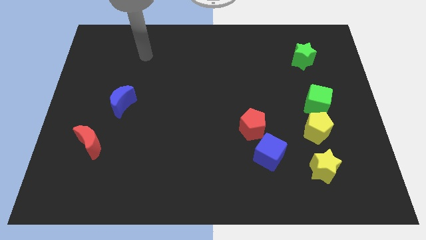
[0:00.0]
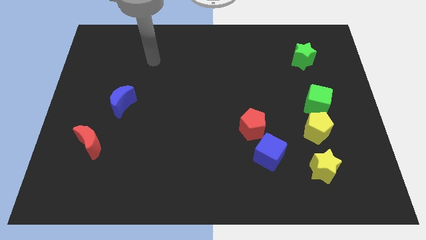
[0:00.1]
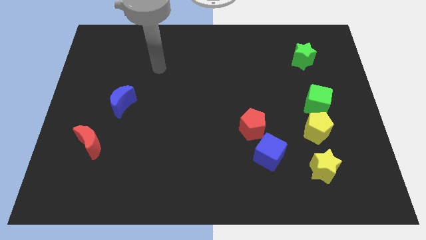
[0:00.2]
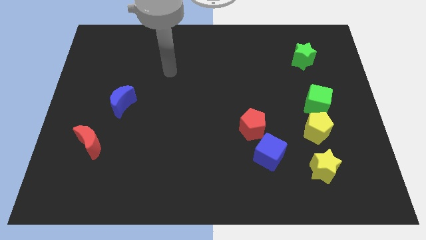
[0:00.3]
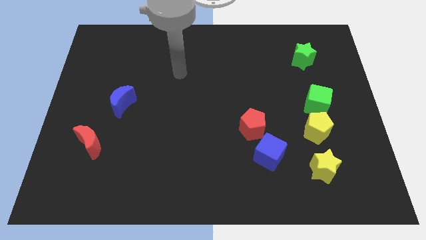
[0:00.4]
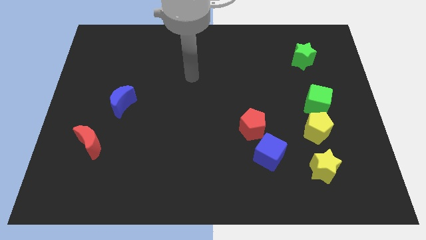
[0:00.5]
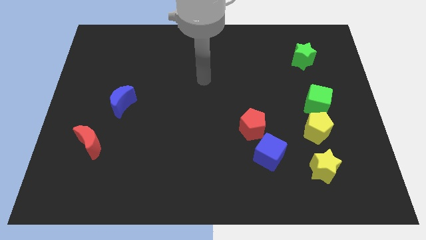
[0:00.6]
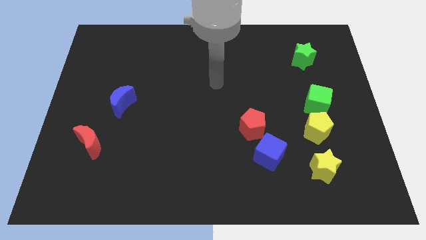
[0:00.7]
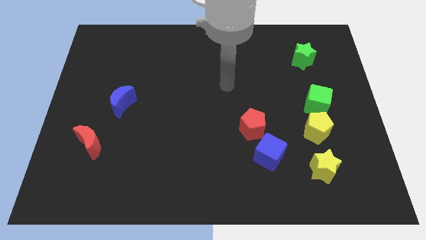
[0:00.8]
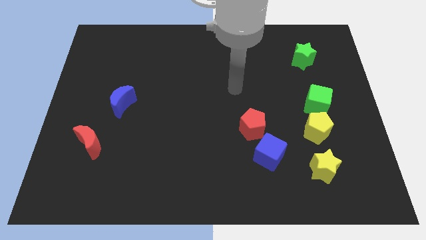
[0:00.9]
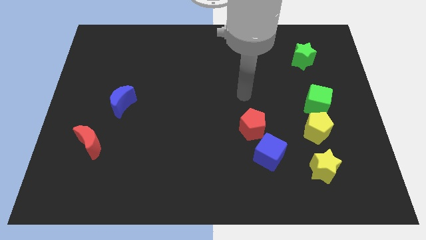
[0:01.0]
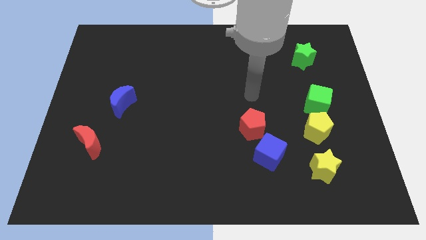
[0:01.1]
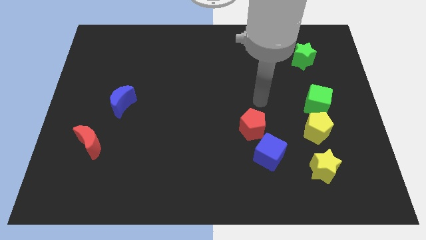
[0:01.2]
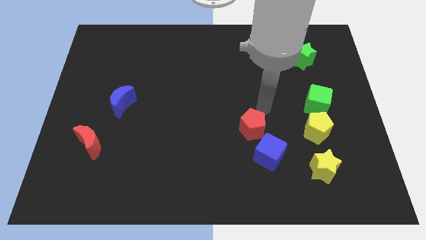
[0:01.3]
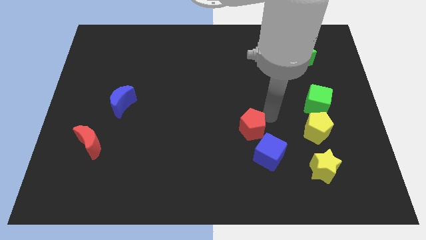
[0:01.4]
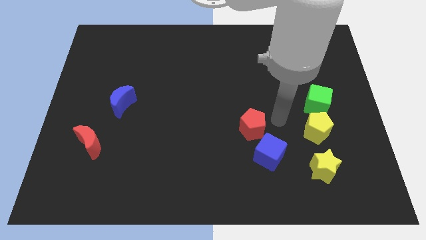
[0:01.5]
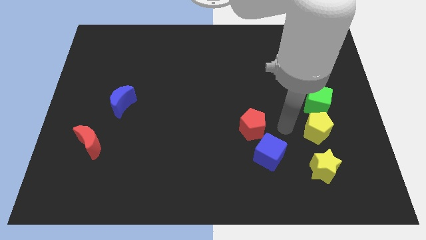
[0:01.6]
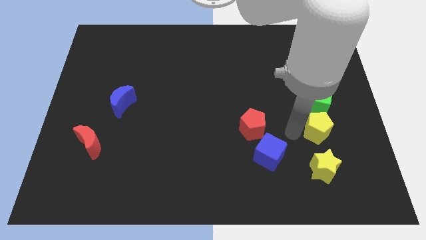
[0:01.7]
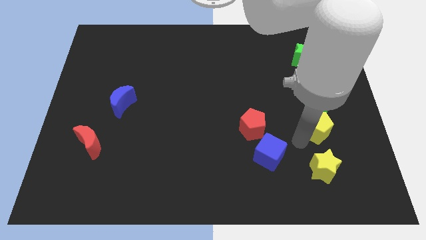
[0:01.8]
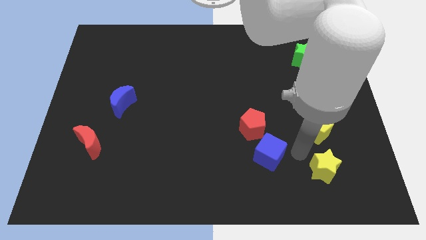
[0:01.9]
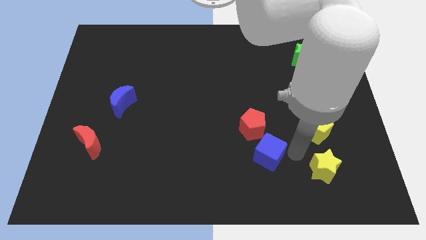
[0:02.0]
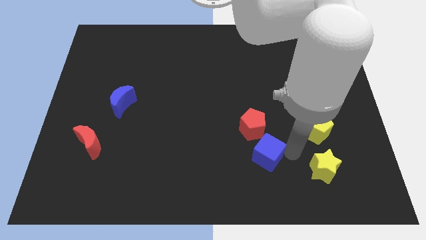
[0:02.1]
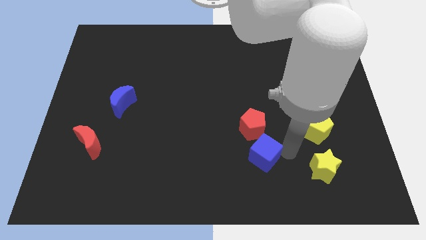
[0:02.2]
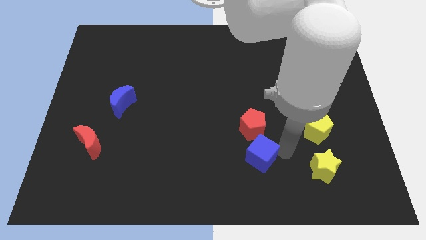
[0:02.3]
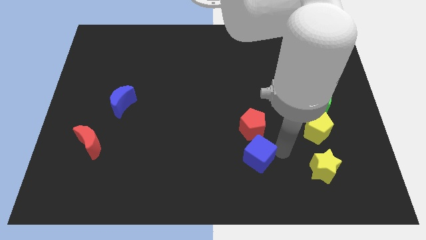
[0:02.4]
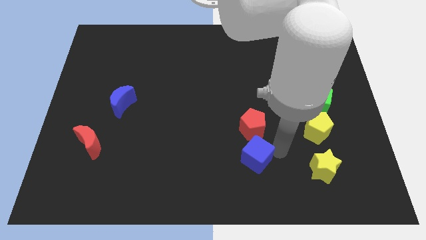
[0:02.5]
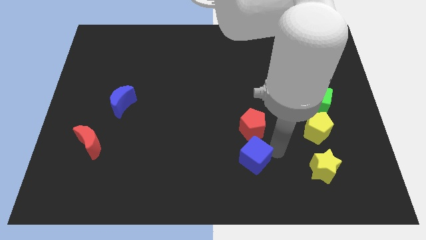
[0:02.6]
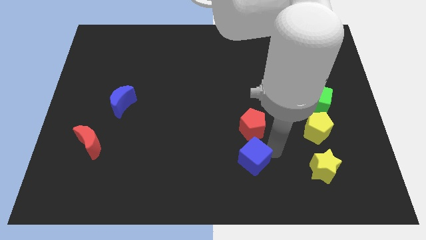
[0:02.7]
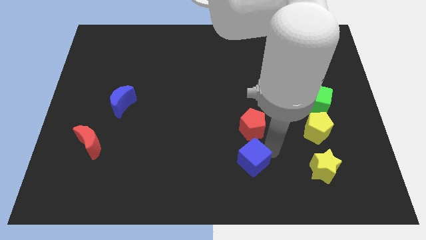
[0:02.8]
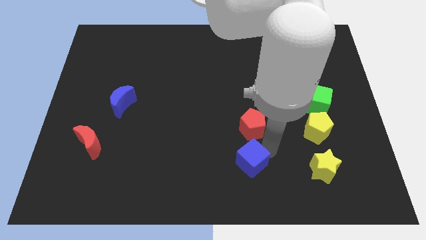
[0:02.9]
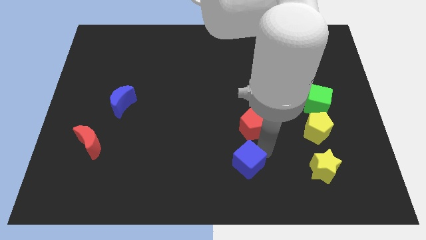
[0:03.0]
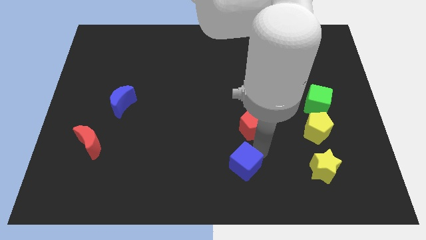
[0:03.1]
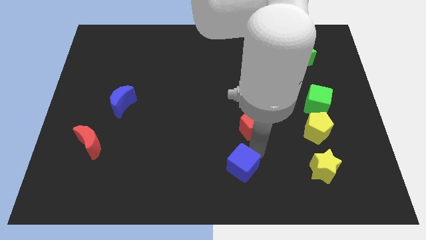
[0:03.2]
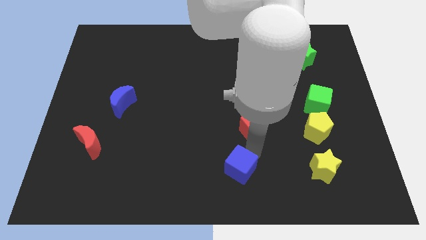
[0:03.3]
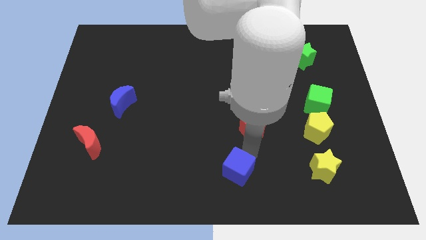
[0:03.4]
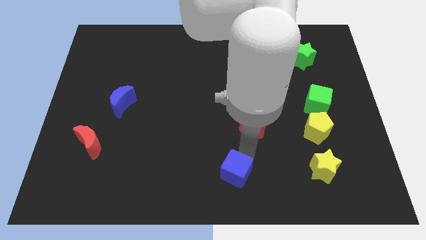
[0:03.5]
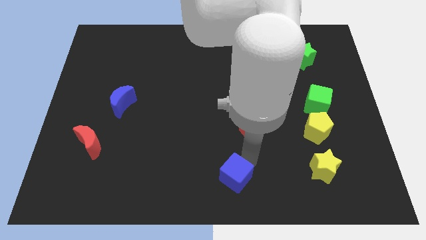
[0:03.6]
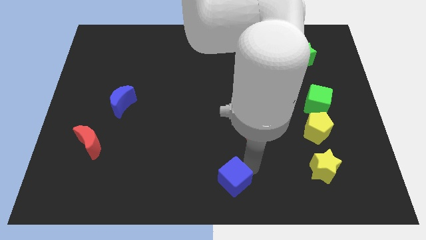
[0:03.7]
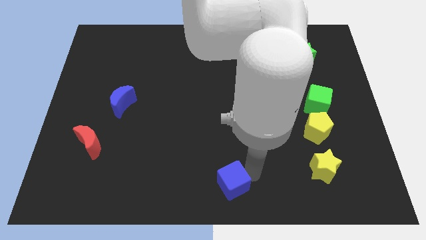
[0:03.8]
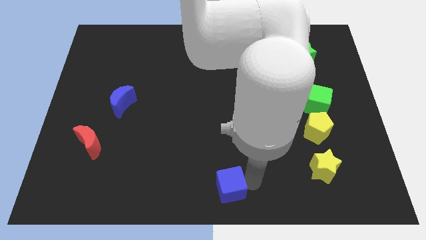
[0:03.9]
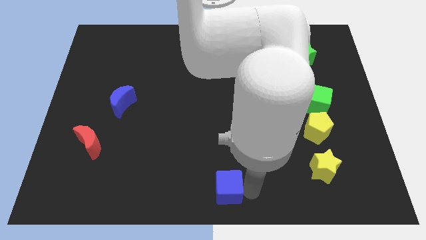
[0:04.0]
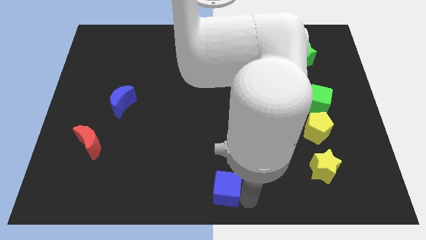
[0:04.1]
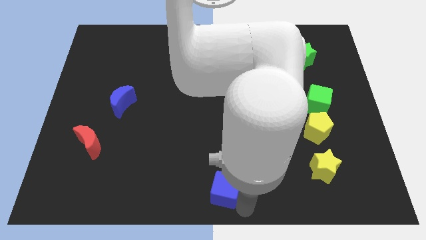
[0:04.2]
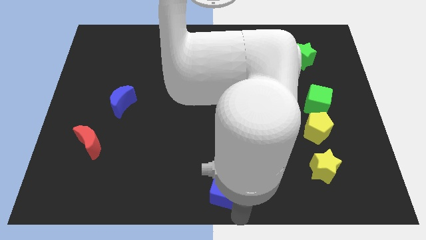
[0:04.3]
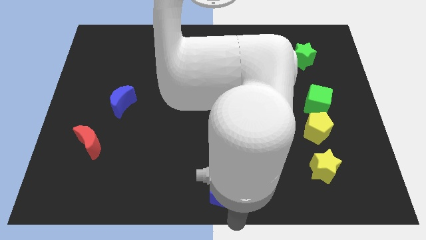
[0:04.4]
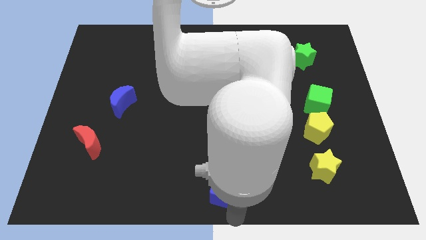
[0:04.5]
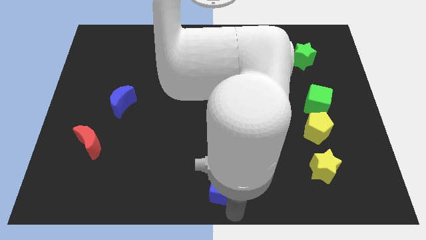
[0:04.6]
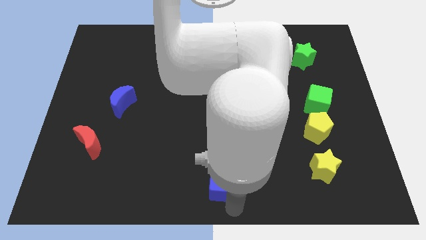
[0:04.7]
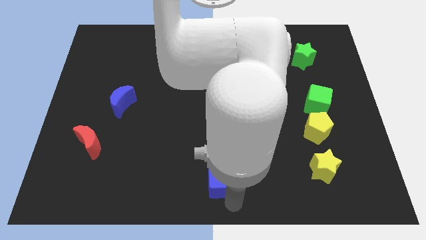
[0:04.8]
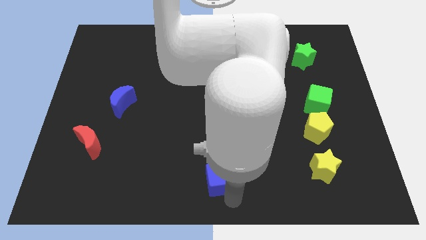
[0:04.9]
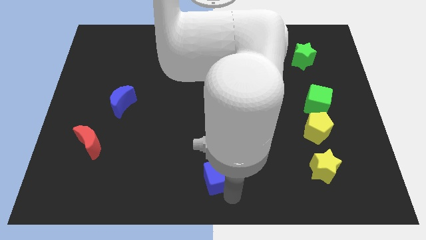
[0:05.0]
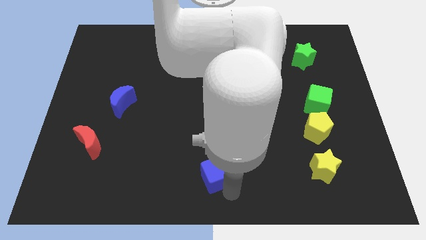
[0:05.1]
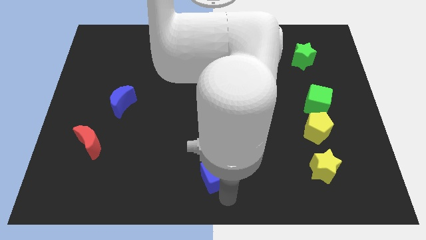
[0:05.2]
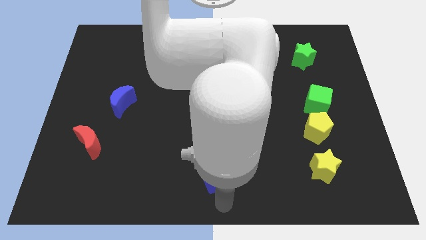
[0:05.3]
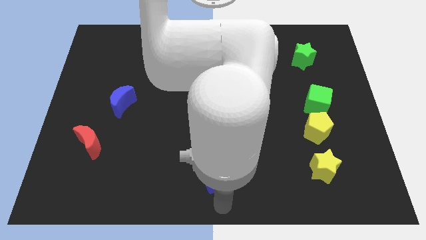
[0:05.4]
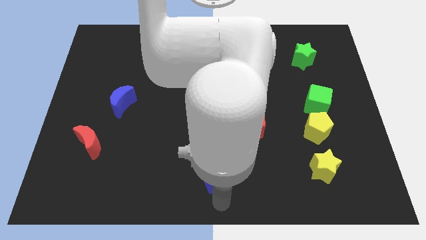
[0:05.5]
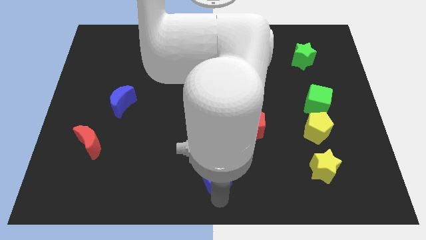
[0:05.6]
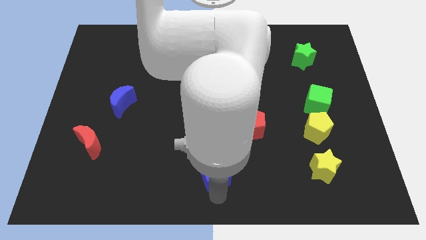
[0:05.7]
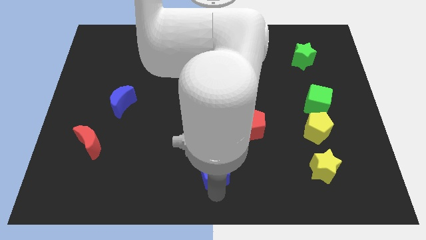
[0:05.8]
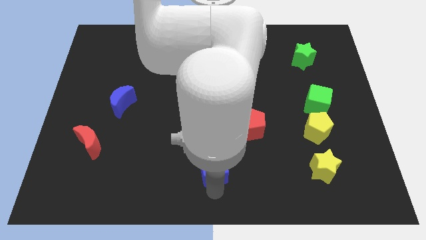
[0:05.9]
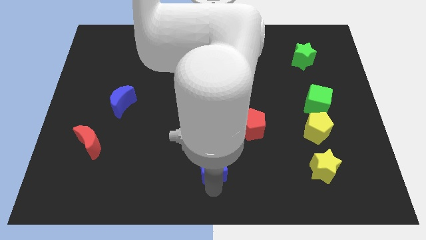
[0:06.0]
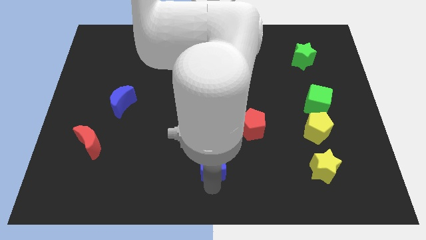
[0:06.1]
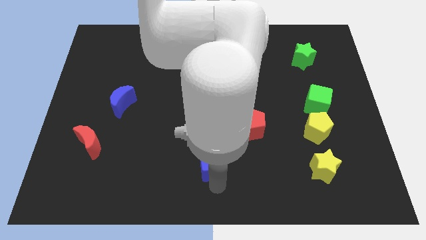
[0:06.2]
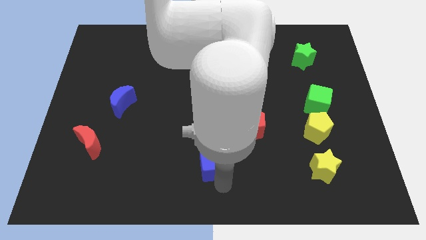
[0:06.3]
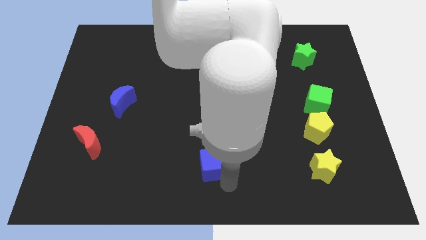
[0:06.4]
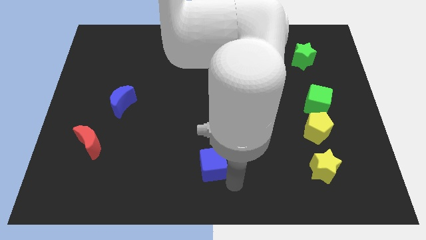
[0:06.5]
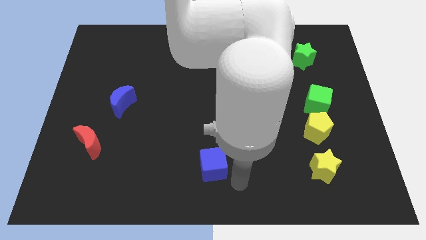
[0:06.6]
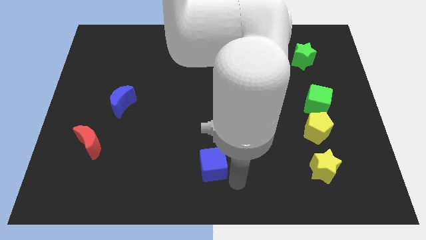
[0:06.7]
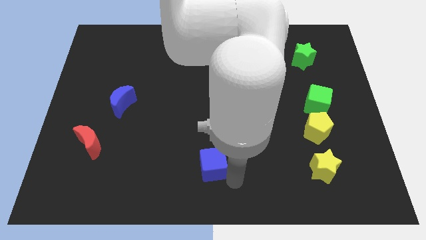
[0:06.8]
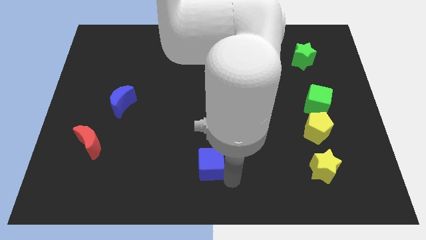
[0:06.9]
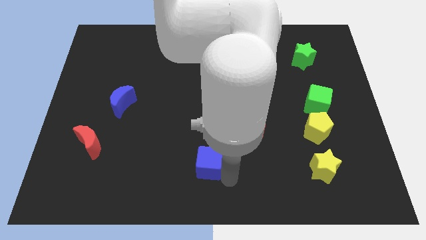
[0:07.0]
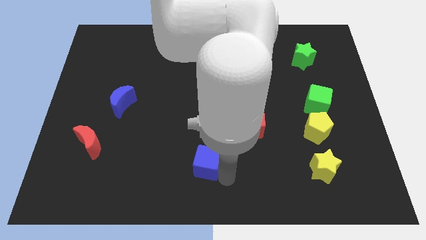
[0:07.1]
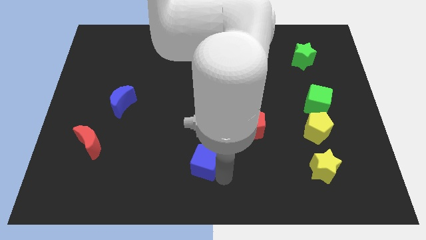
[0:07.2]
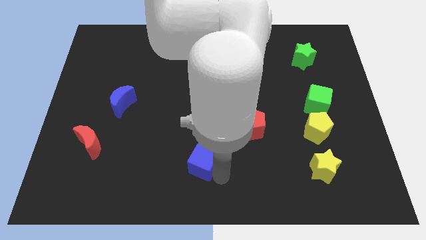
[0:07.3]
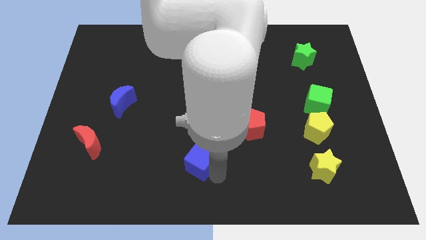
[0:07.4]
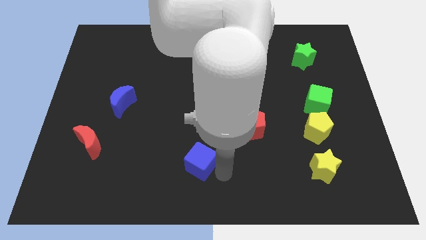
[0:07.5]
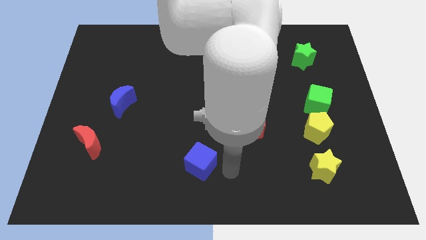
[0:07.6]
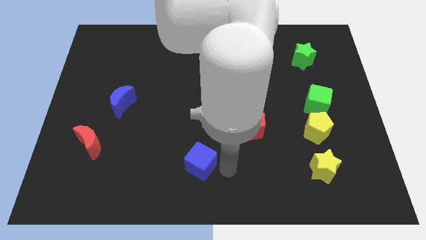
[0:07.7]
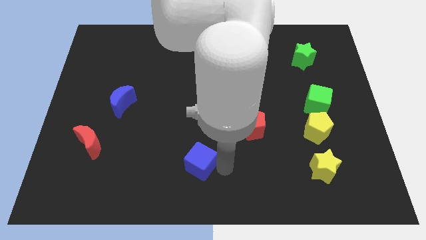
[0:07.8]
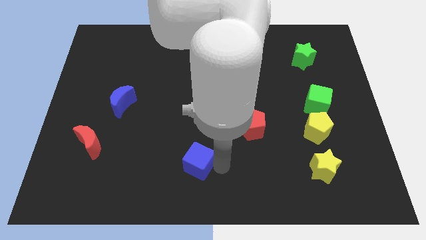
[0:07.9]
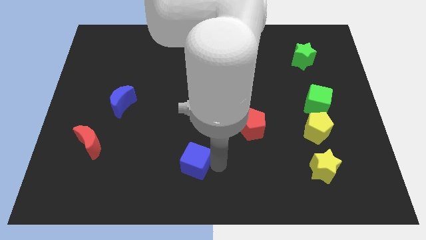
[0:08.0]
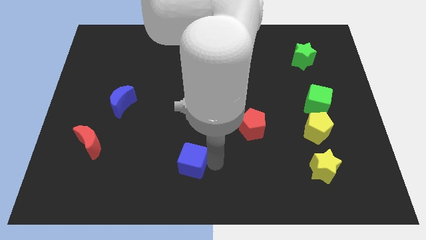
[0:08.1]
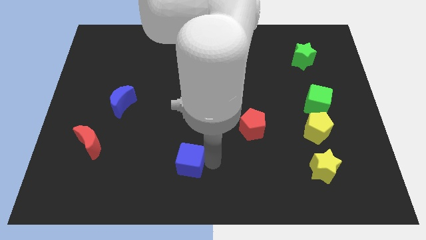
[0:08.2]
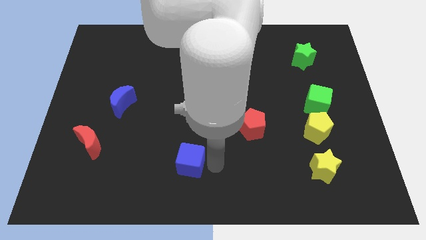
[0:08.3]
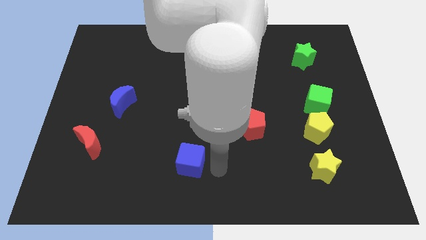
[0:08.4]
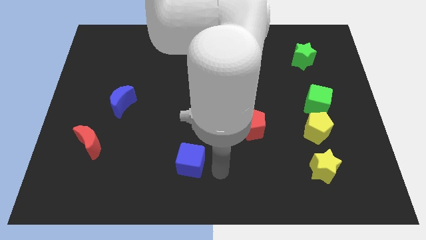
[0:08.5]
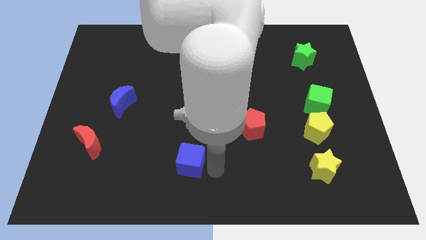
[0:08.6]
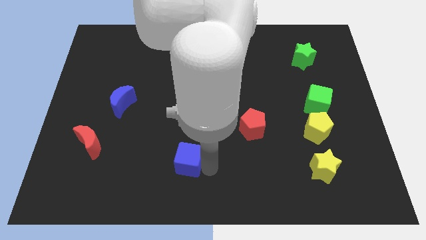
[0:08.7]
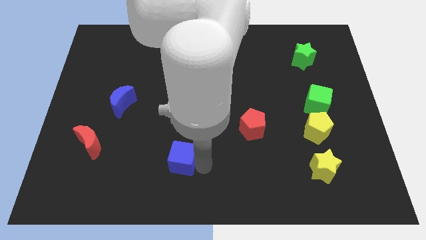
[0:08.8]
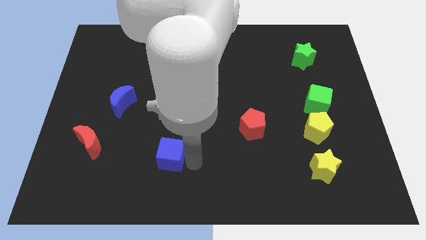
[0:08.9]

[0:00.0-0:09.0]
move the blue cube left
